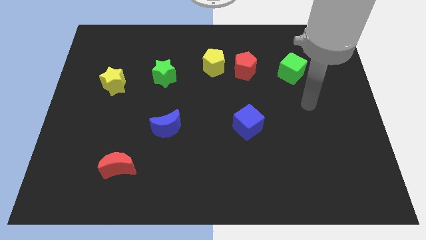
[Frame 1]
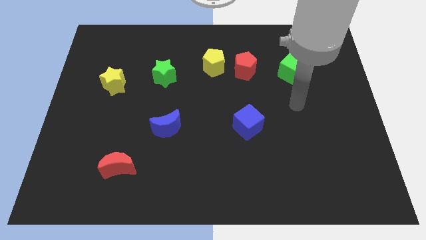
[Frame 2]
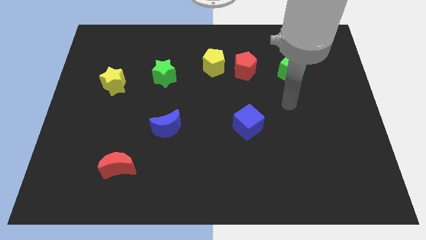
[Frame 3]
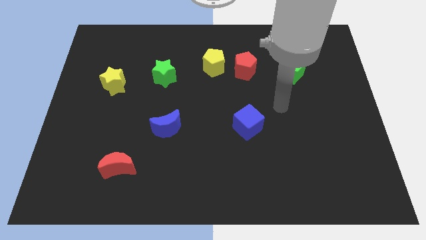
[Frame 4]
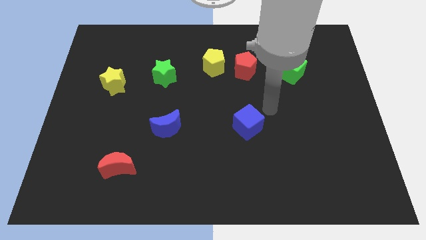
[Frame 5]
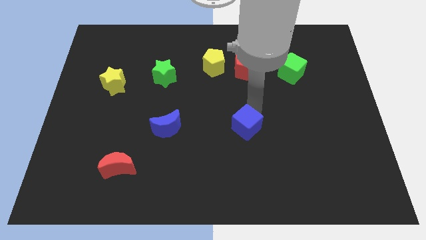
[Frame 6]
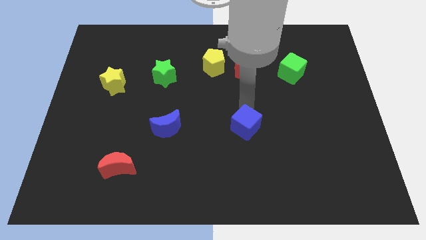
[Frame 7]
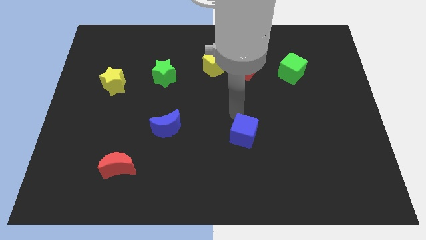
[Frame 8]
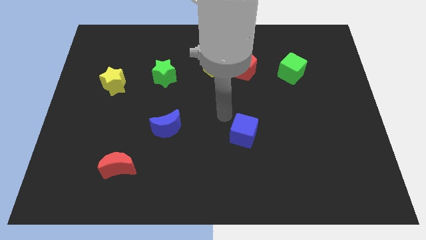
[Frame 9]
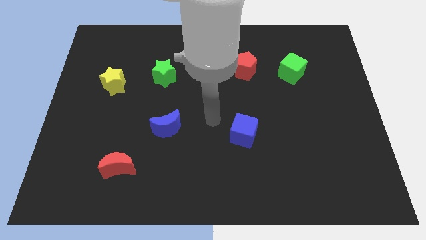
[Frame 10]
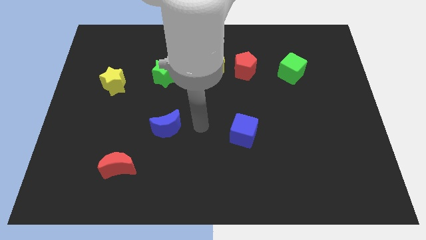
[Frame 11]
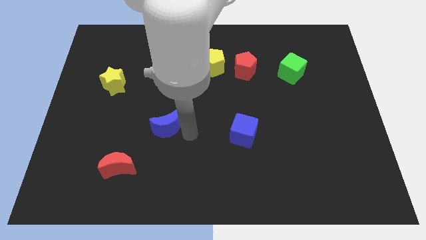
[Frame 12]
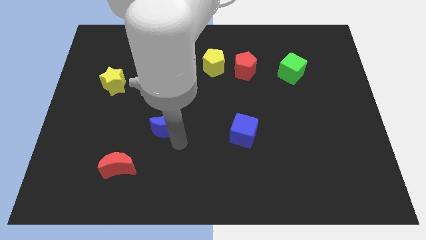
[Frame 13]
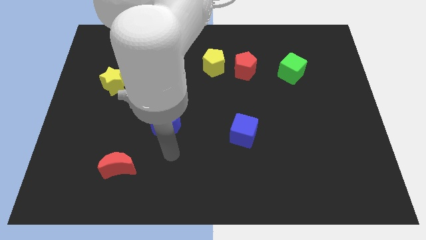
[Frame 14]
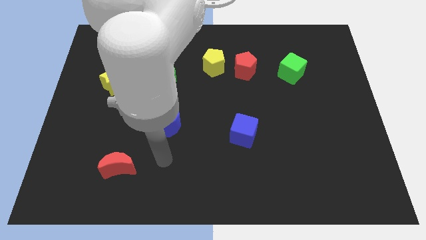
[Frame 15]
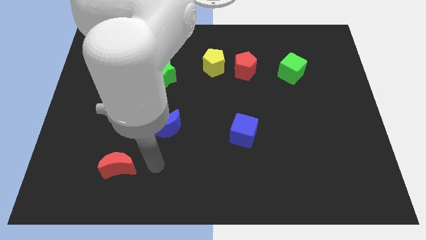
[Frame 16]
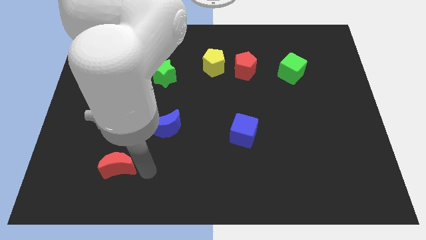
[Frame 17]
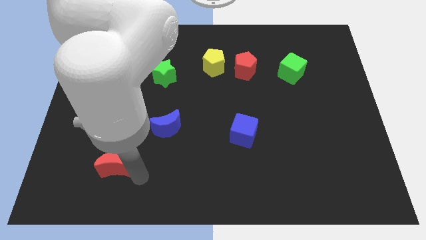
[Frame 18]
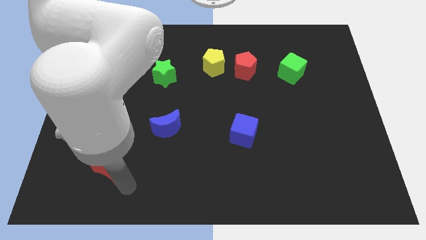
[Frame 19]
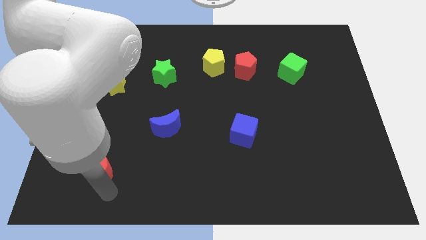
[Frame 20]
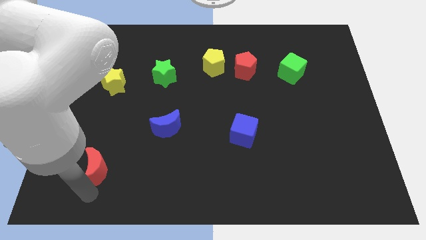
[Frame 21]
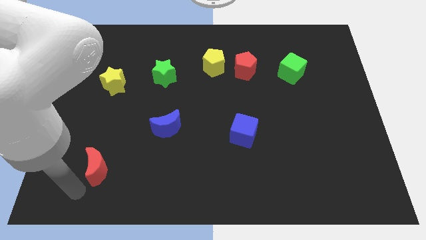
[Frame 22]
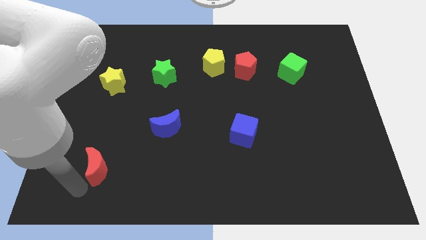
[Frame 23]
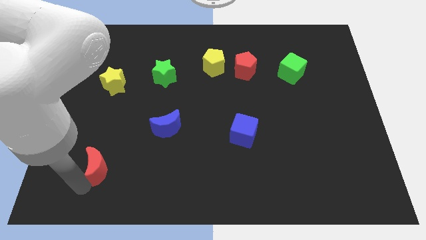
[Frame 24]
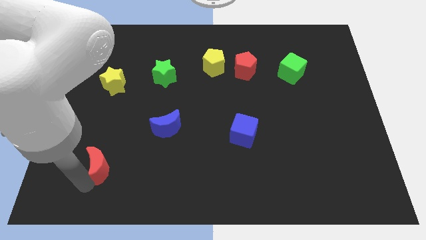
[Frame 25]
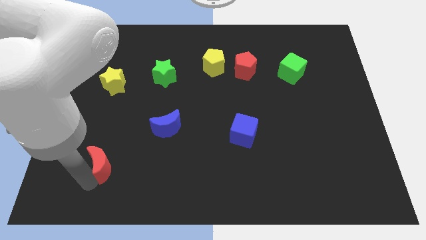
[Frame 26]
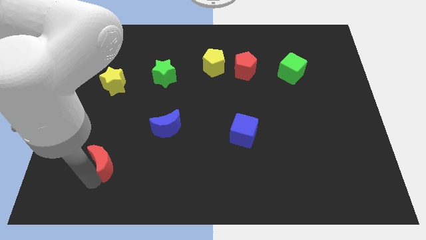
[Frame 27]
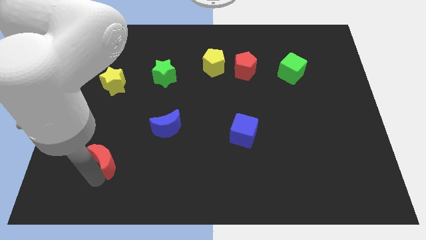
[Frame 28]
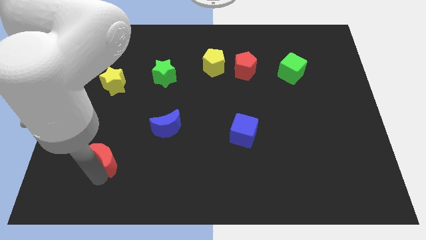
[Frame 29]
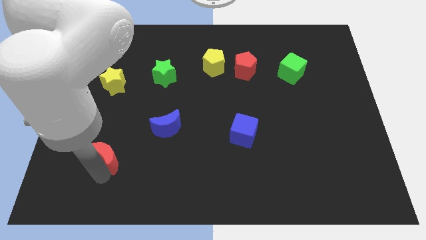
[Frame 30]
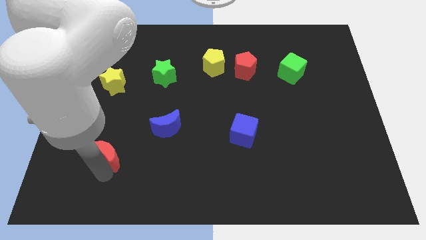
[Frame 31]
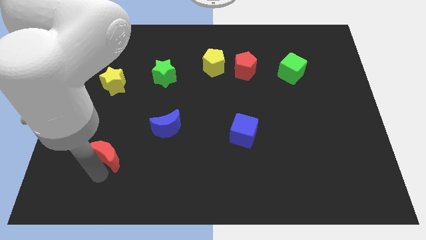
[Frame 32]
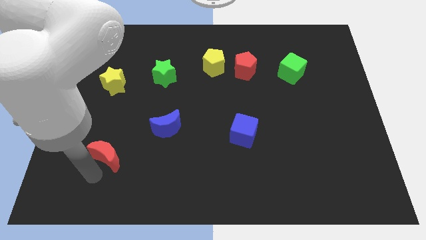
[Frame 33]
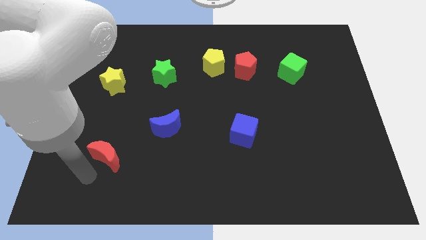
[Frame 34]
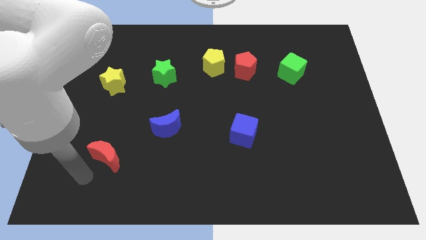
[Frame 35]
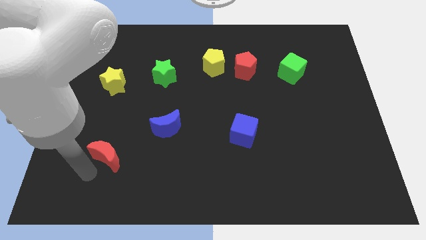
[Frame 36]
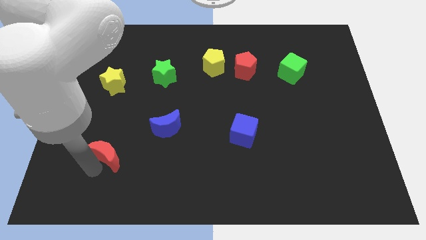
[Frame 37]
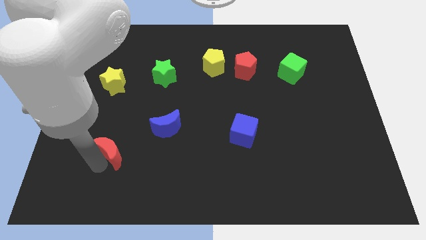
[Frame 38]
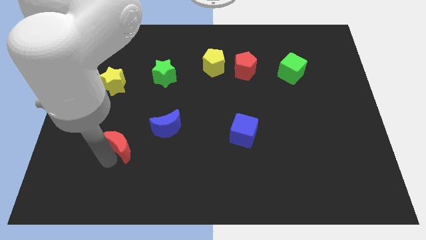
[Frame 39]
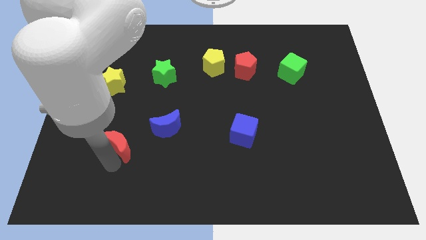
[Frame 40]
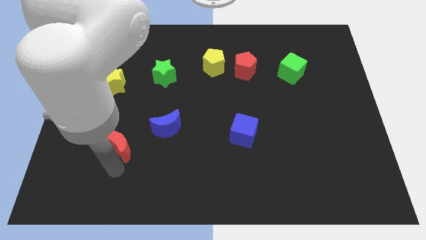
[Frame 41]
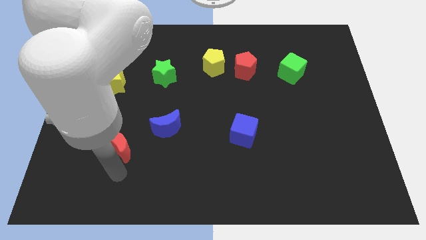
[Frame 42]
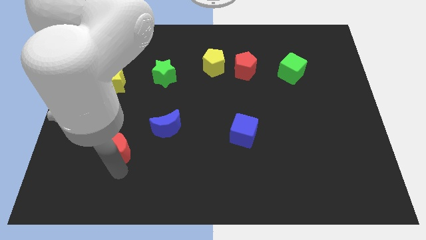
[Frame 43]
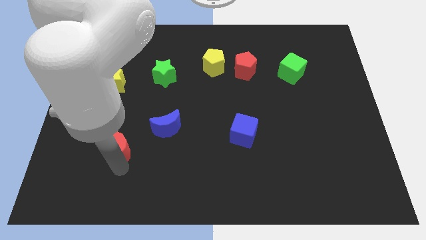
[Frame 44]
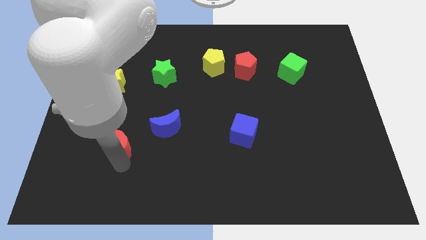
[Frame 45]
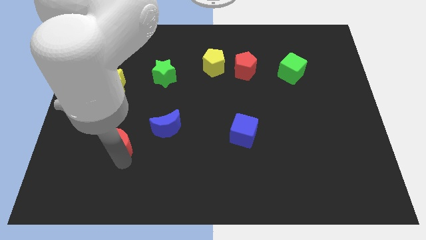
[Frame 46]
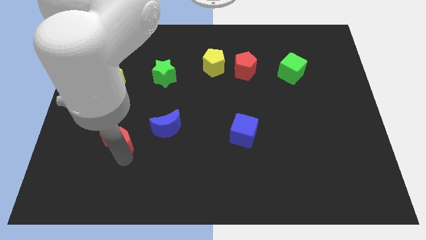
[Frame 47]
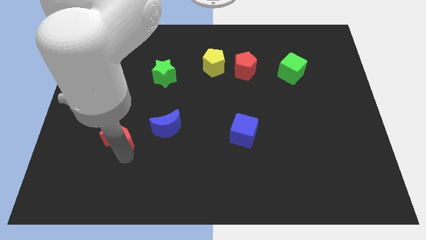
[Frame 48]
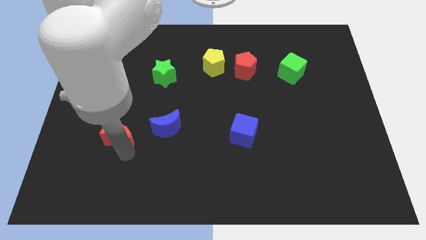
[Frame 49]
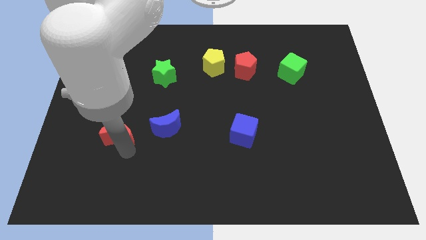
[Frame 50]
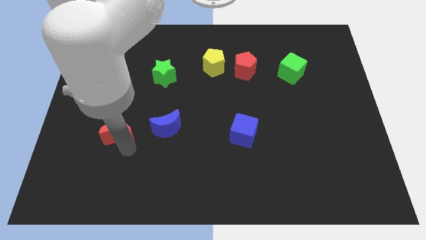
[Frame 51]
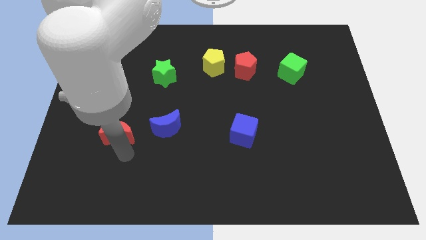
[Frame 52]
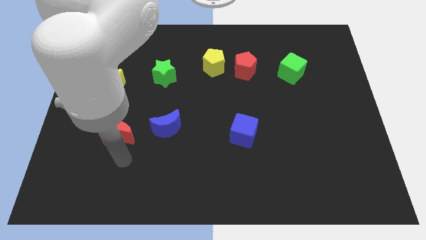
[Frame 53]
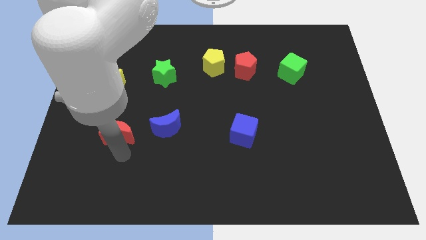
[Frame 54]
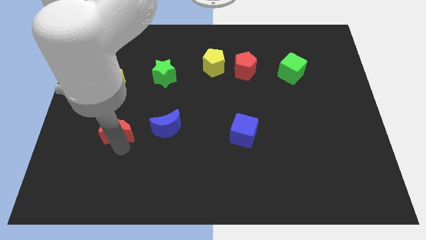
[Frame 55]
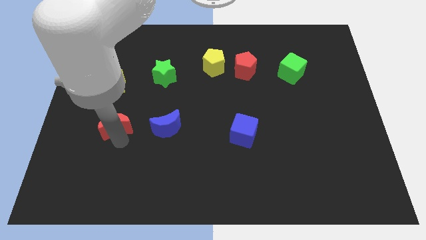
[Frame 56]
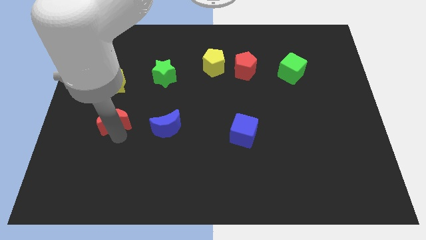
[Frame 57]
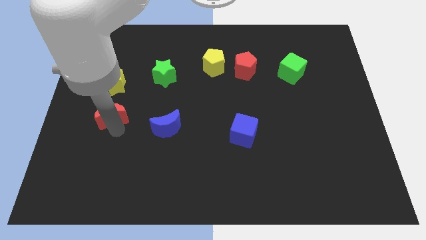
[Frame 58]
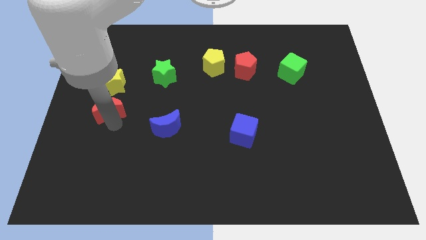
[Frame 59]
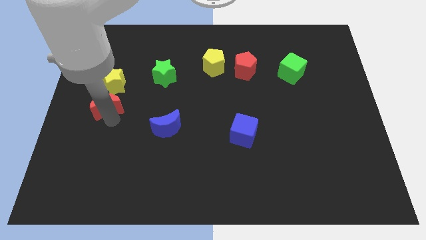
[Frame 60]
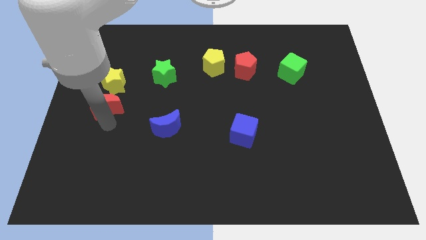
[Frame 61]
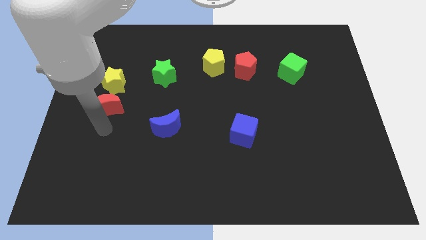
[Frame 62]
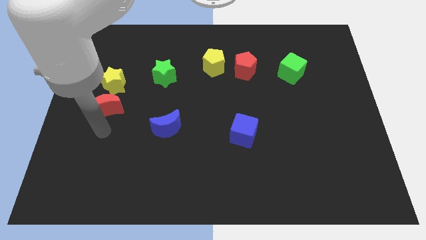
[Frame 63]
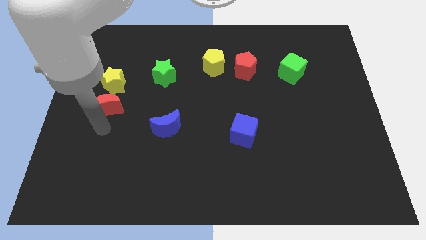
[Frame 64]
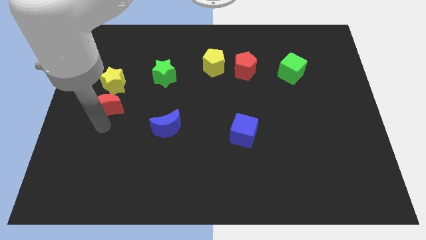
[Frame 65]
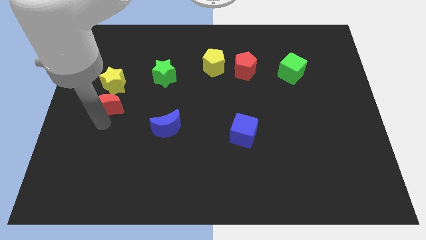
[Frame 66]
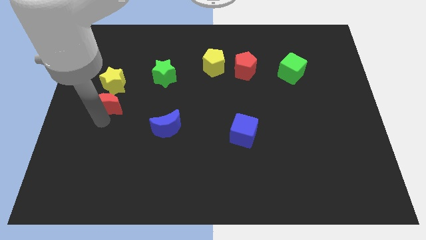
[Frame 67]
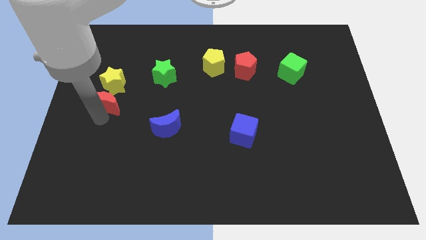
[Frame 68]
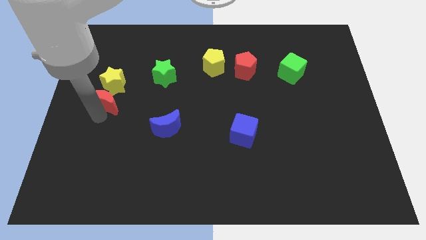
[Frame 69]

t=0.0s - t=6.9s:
push the red moon close to the yellow star
